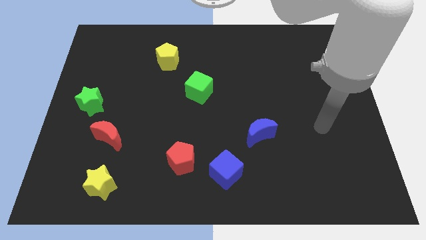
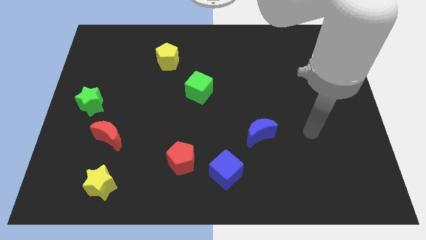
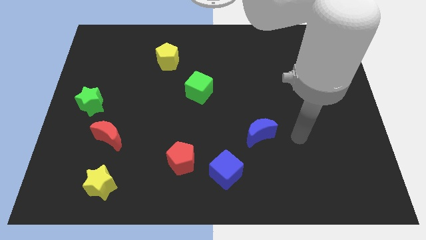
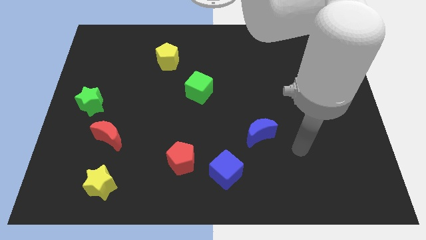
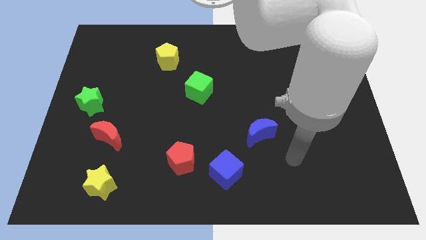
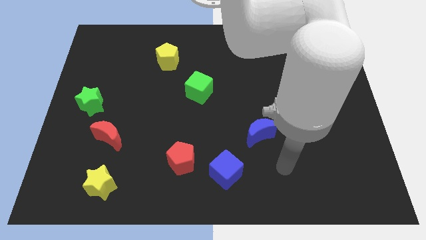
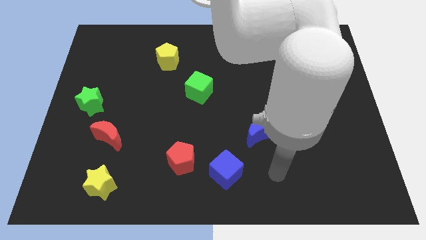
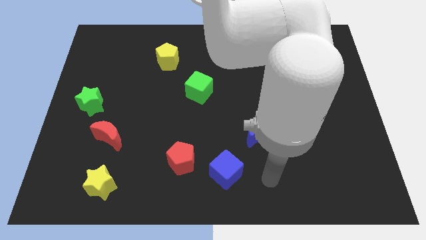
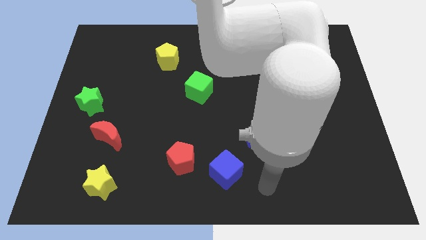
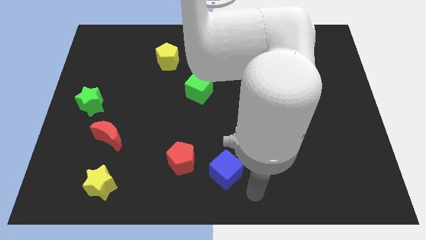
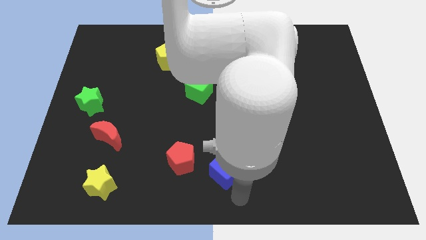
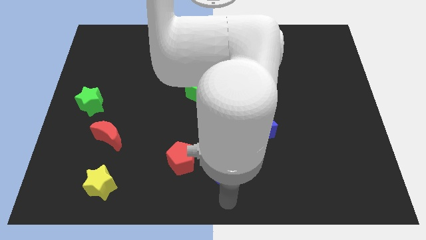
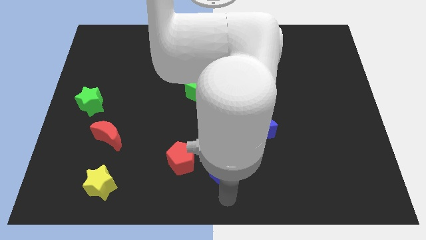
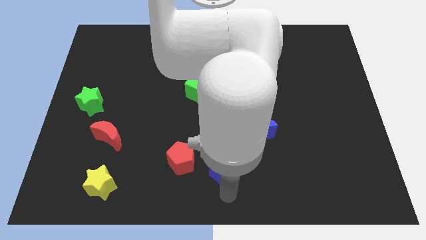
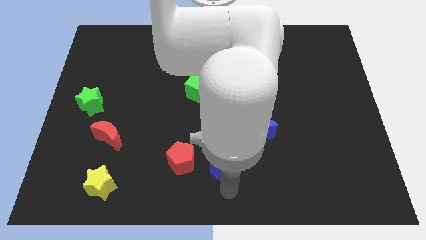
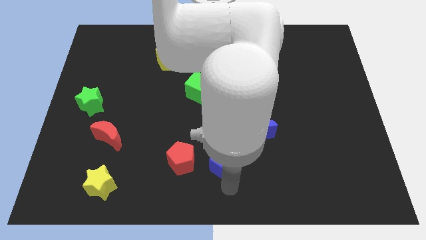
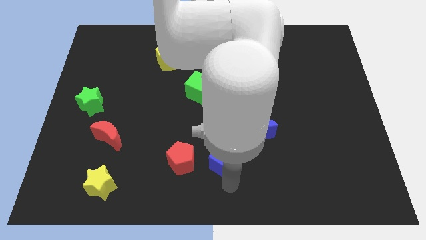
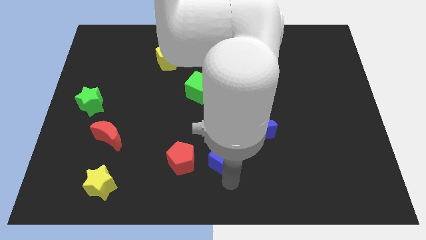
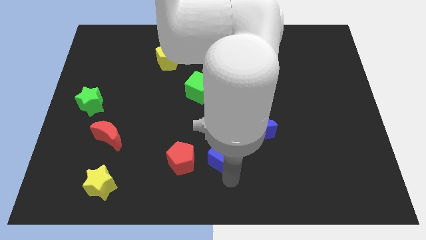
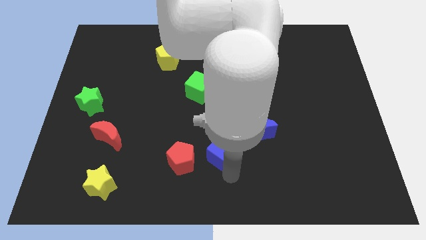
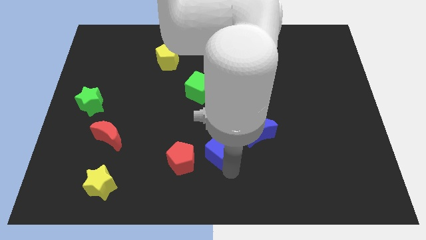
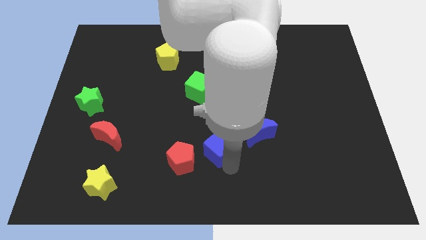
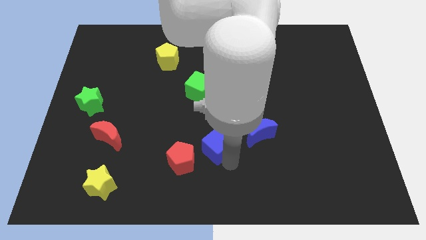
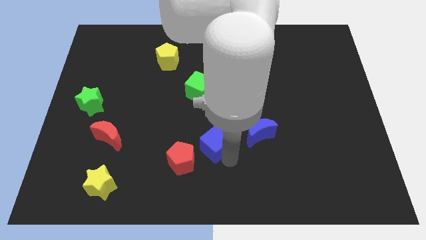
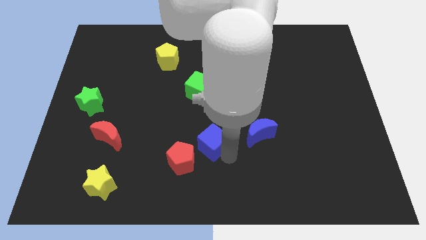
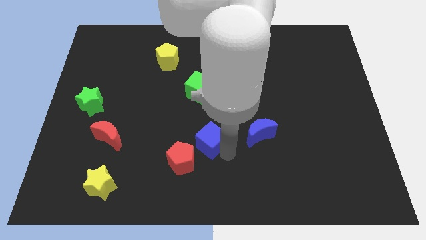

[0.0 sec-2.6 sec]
slide the blue cube a little up

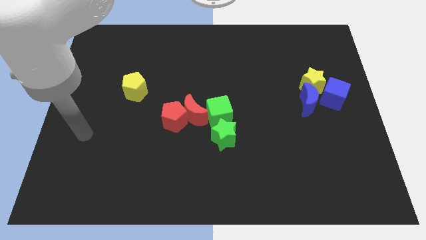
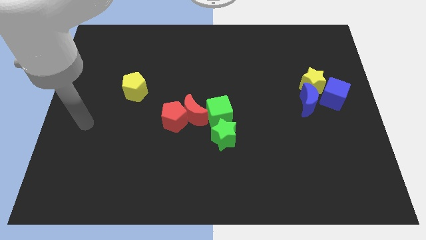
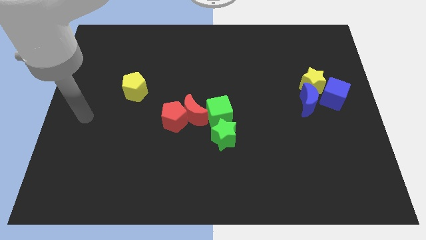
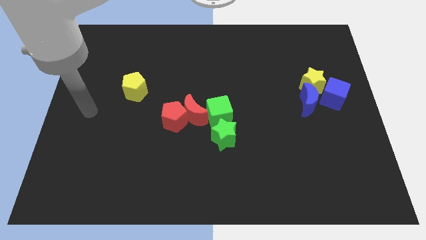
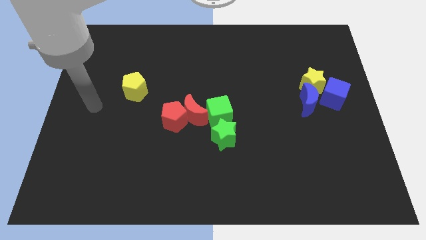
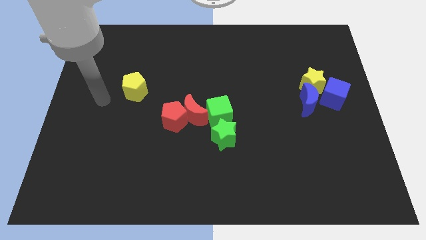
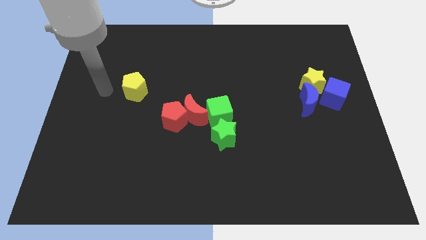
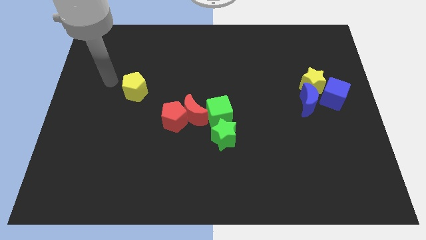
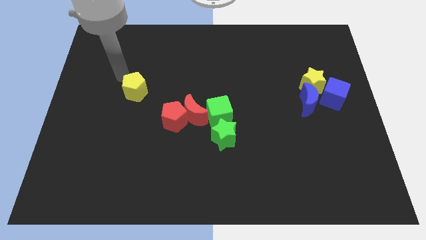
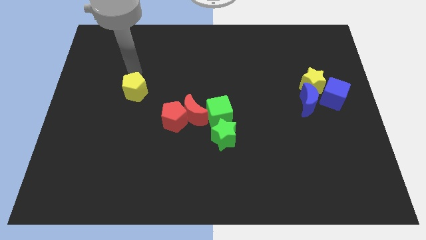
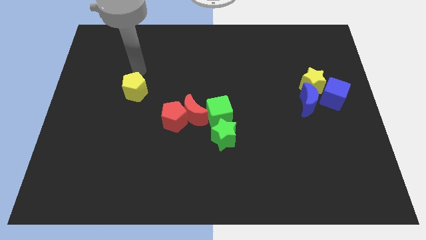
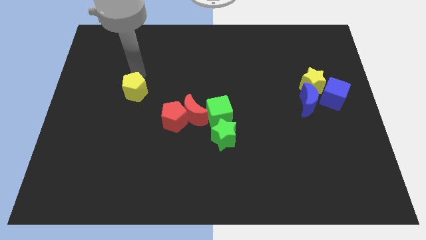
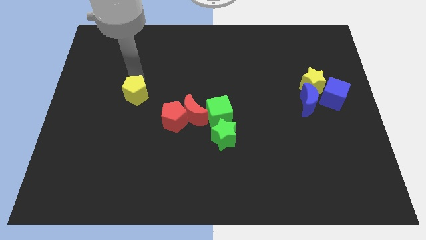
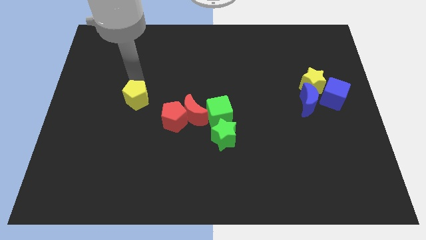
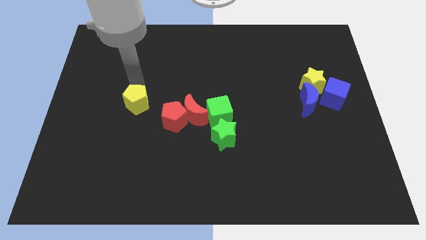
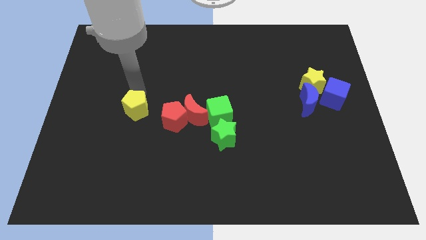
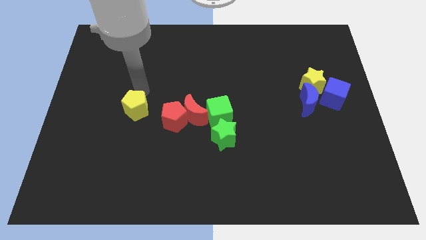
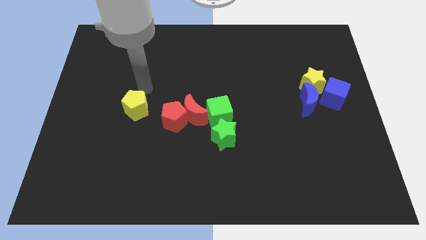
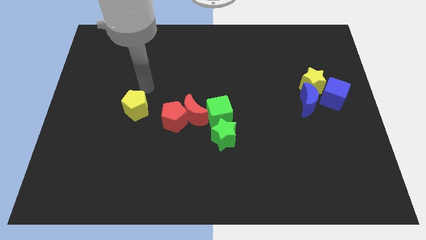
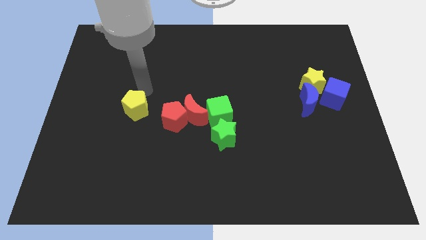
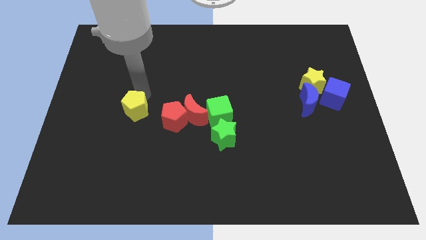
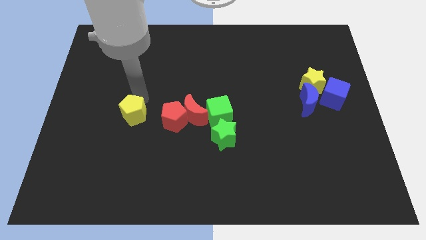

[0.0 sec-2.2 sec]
slide the yellow pentagon a little down

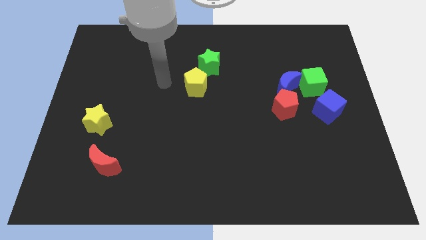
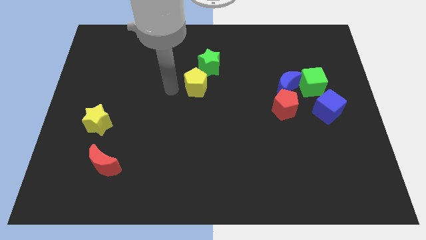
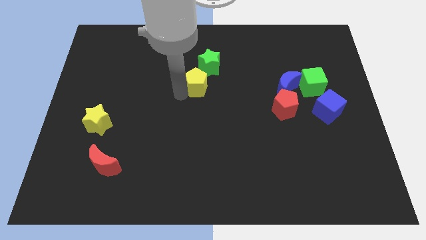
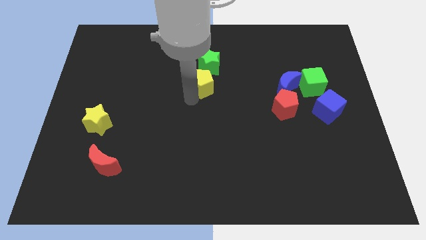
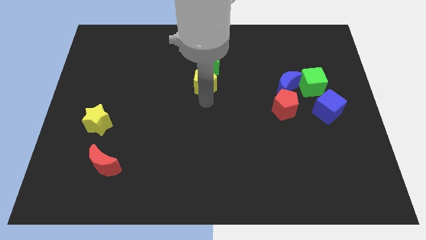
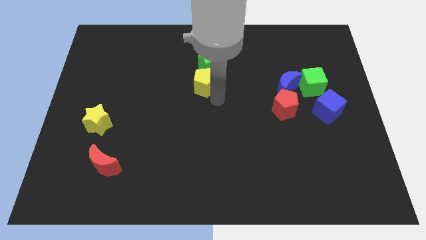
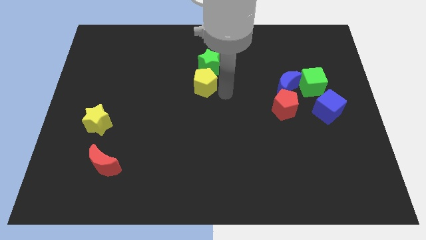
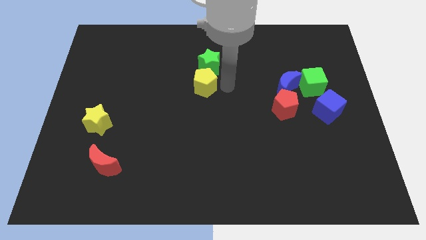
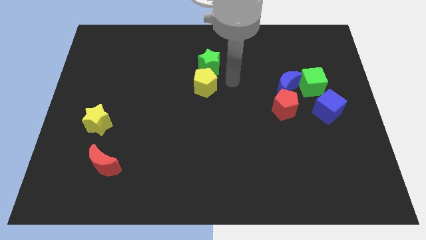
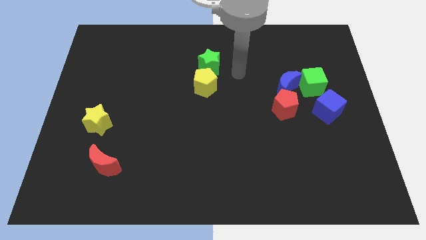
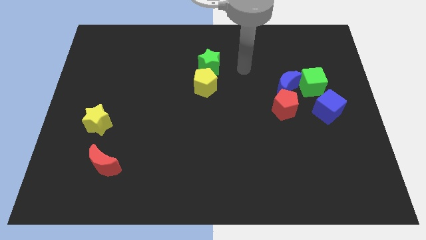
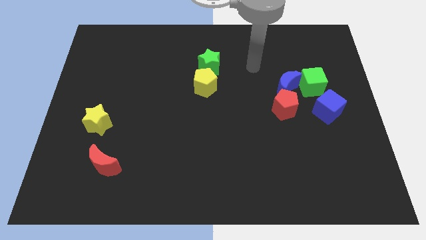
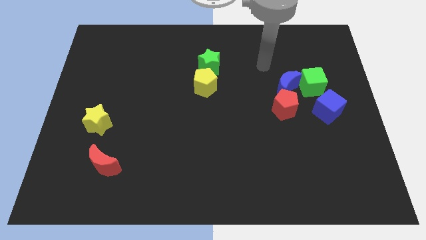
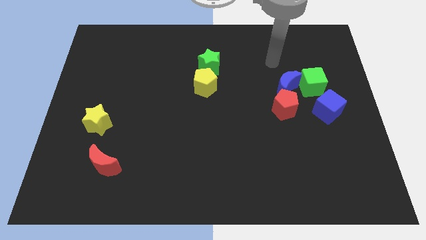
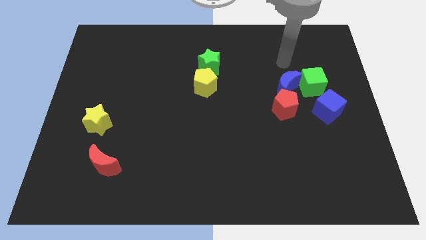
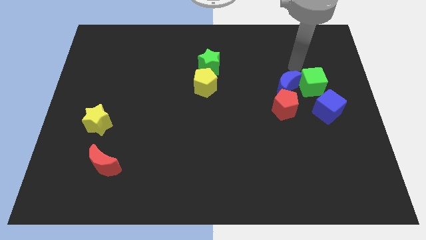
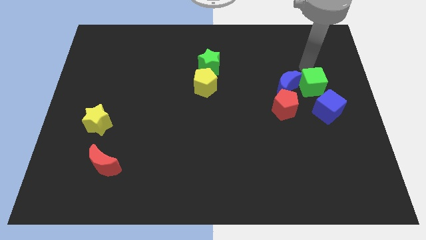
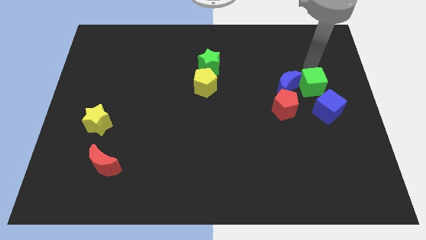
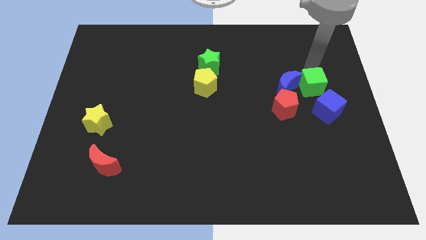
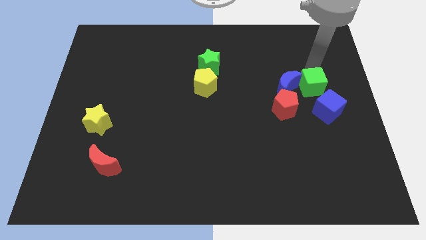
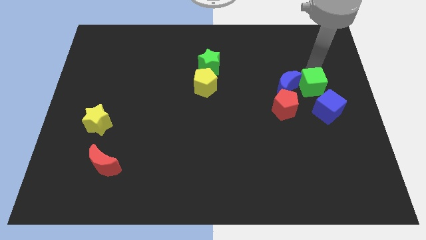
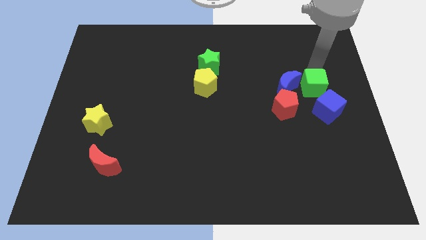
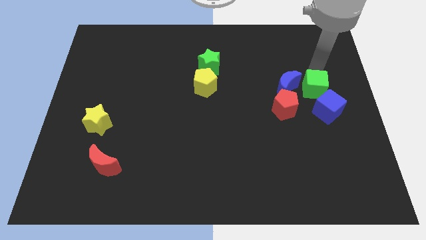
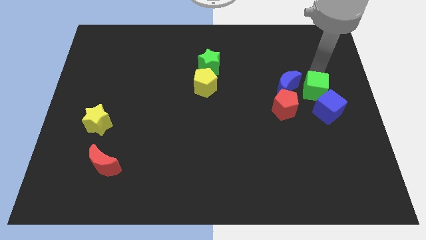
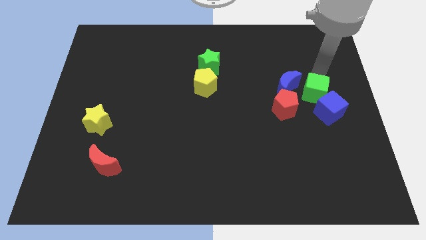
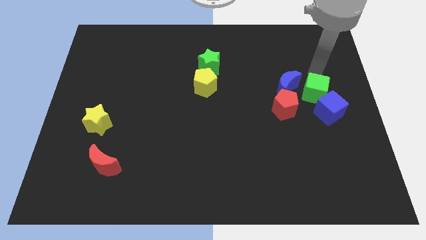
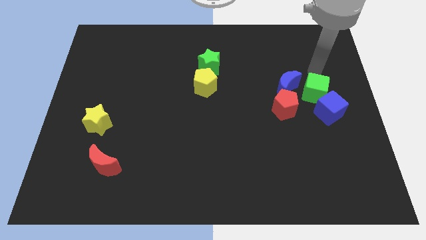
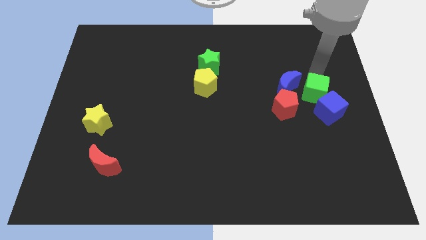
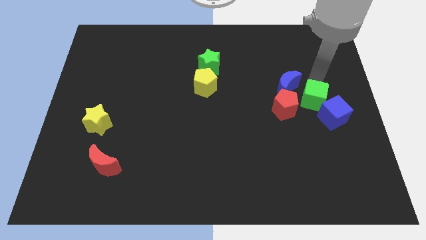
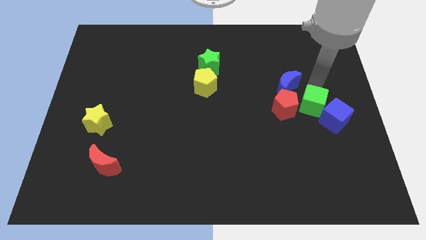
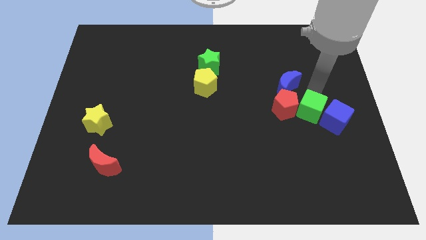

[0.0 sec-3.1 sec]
slightly push the green cube down
